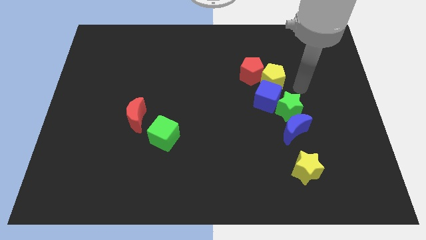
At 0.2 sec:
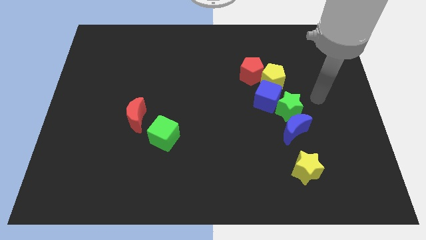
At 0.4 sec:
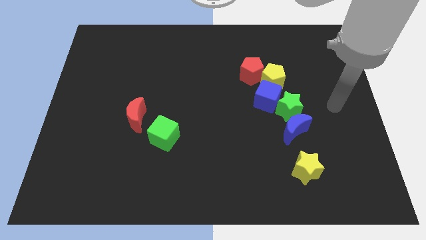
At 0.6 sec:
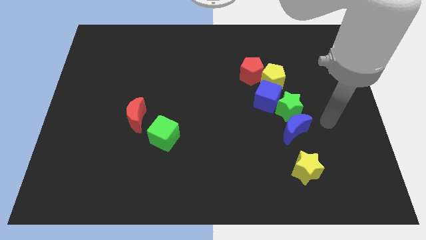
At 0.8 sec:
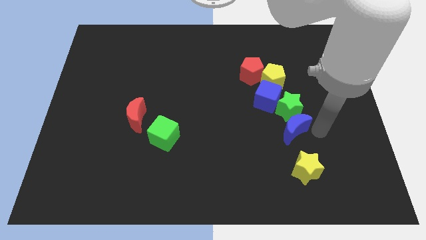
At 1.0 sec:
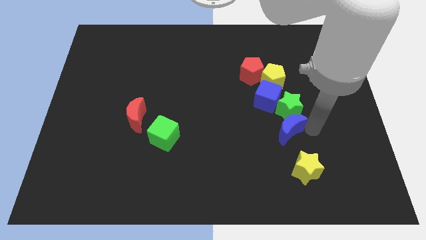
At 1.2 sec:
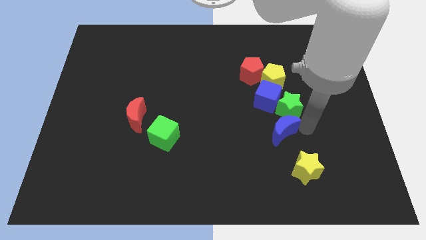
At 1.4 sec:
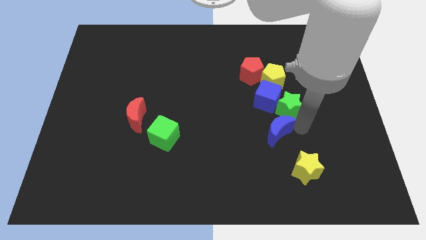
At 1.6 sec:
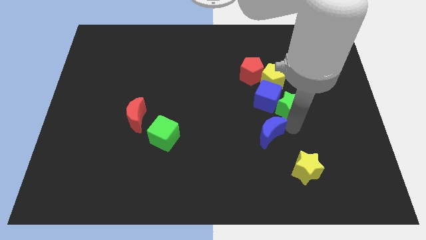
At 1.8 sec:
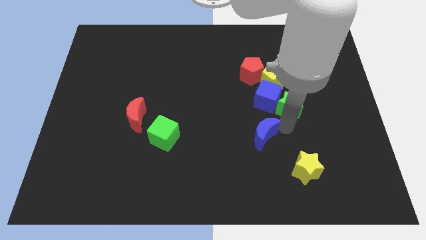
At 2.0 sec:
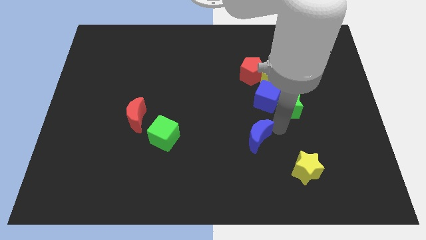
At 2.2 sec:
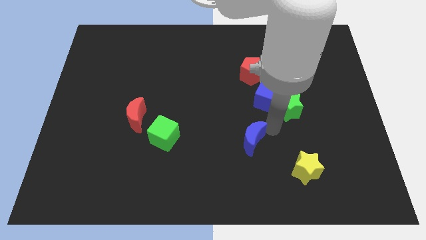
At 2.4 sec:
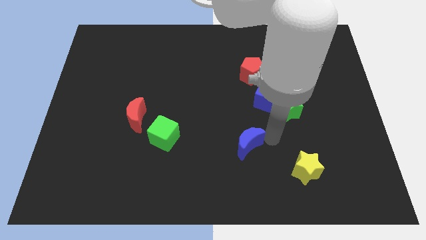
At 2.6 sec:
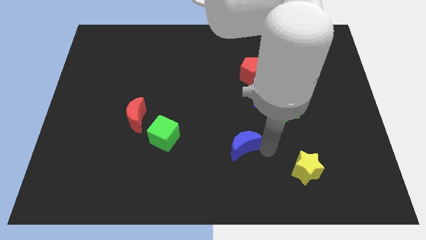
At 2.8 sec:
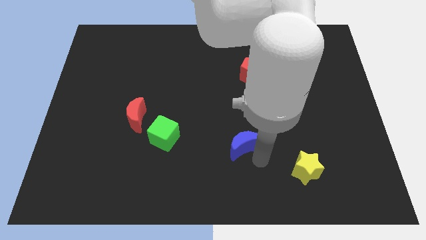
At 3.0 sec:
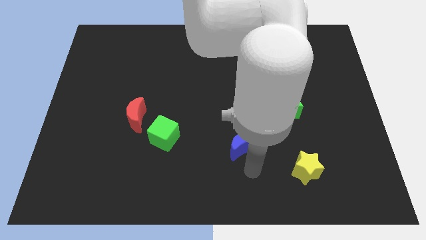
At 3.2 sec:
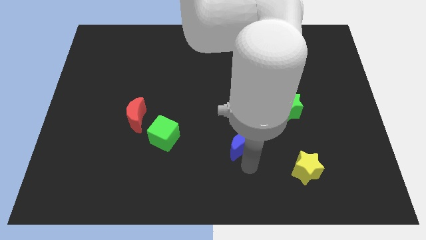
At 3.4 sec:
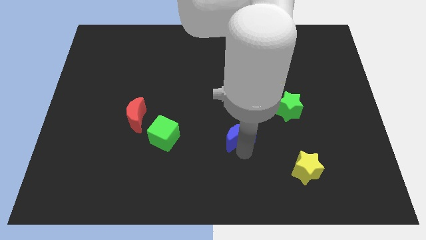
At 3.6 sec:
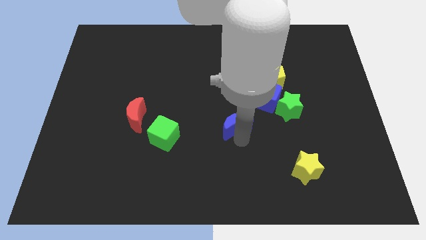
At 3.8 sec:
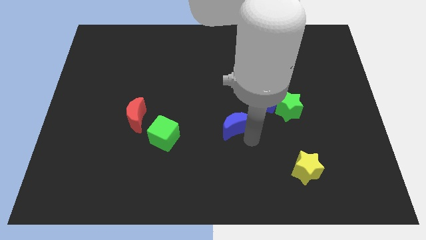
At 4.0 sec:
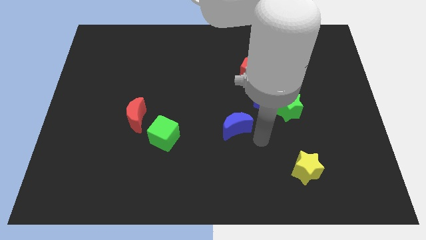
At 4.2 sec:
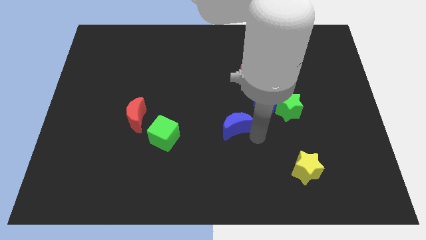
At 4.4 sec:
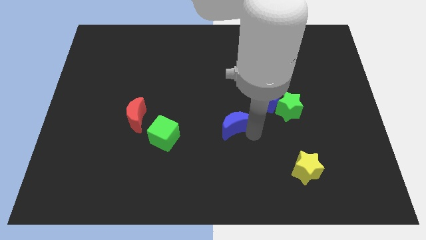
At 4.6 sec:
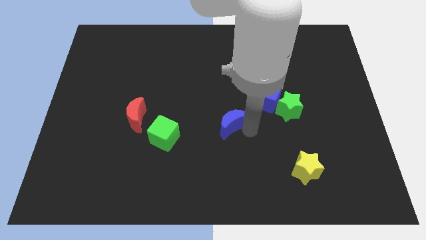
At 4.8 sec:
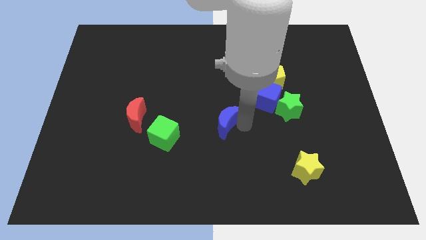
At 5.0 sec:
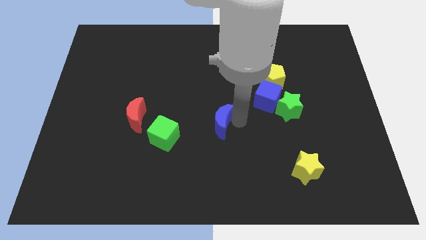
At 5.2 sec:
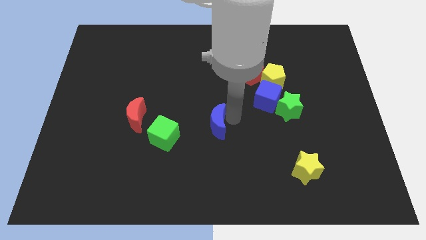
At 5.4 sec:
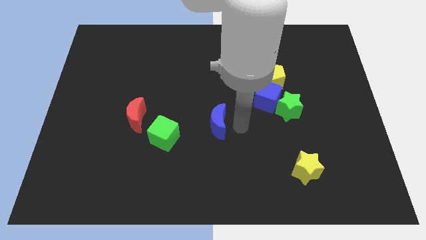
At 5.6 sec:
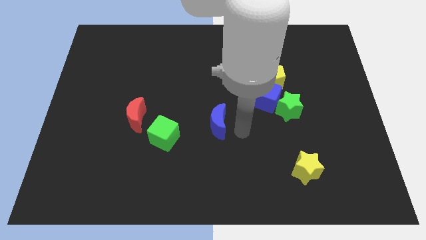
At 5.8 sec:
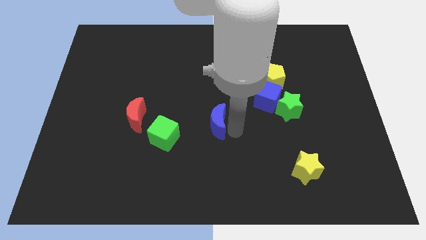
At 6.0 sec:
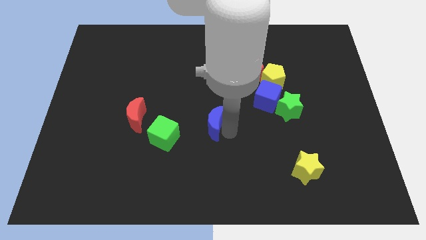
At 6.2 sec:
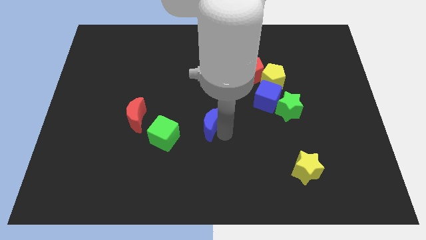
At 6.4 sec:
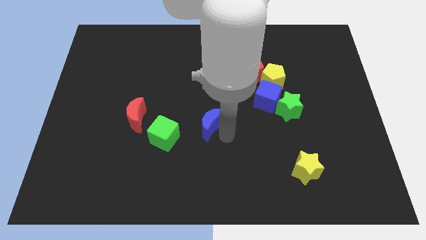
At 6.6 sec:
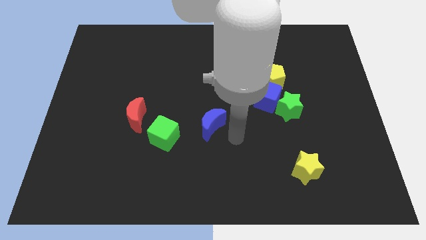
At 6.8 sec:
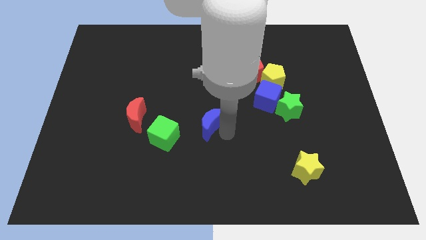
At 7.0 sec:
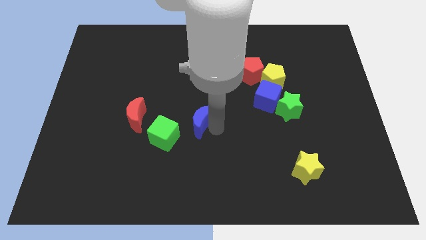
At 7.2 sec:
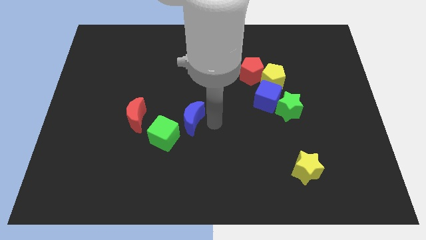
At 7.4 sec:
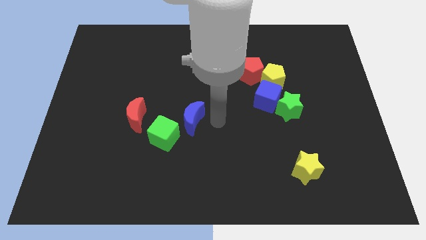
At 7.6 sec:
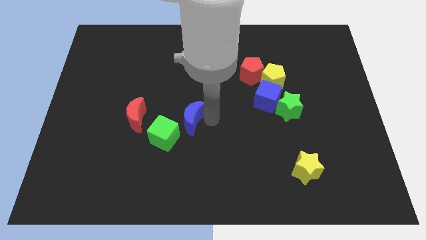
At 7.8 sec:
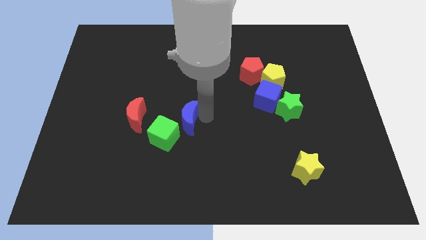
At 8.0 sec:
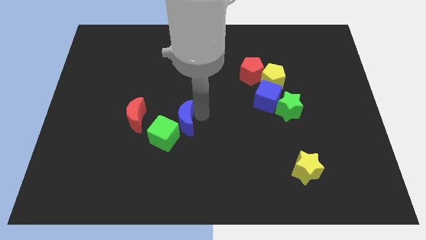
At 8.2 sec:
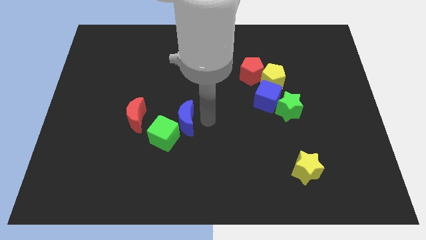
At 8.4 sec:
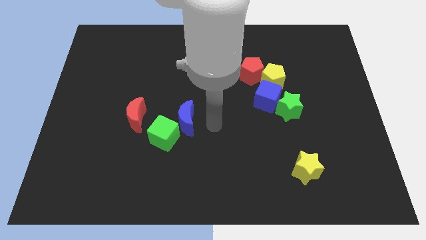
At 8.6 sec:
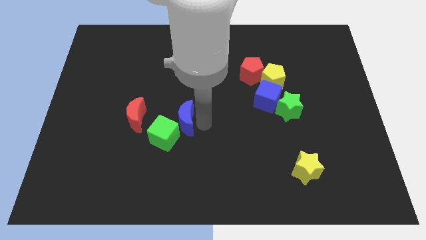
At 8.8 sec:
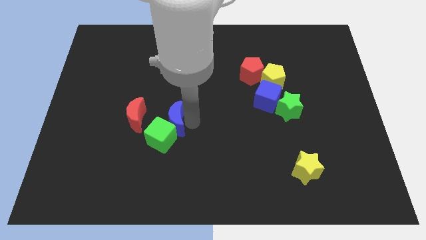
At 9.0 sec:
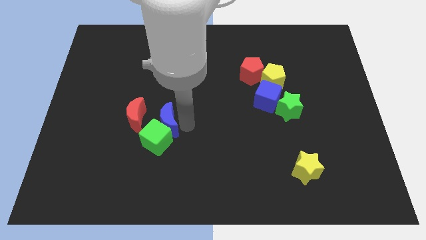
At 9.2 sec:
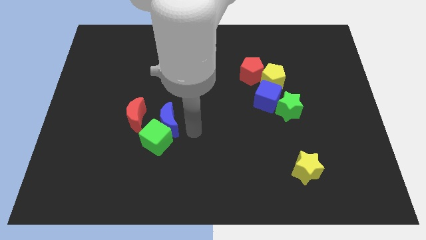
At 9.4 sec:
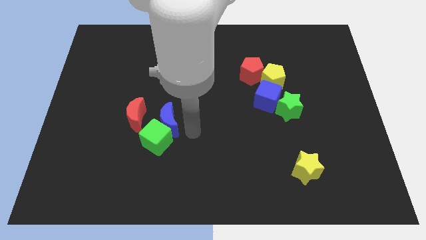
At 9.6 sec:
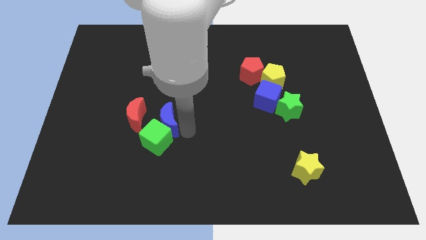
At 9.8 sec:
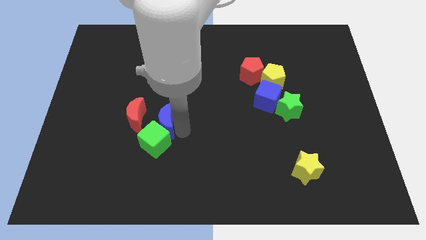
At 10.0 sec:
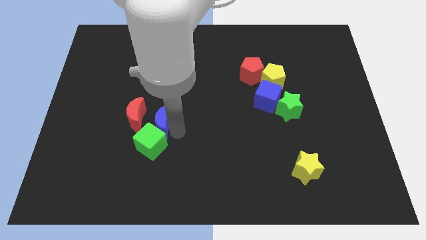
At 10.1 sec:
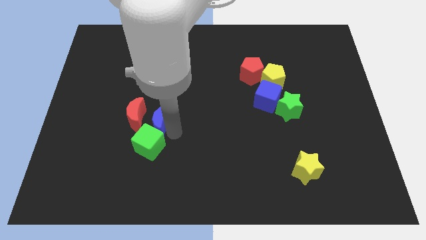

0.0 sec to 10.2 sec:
push the blue moon close to the red moon

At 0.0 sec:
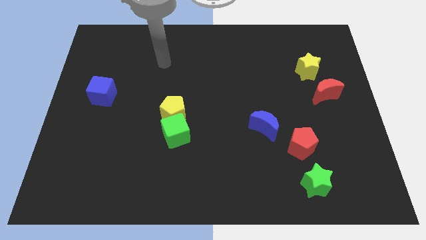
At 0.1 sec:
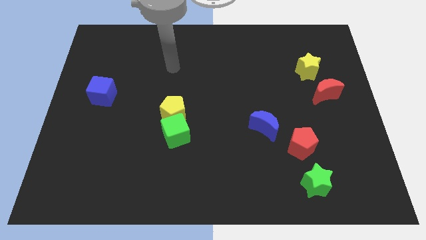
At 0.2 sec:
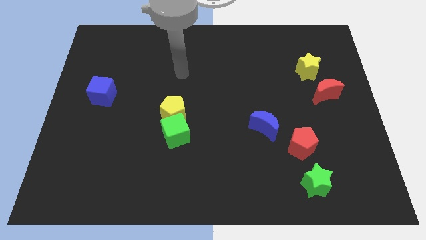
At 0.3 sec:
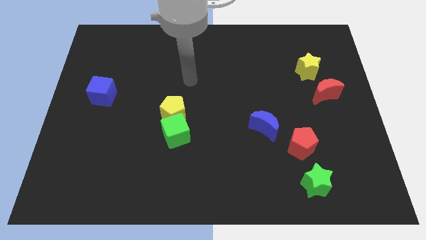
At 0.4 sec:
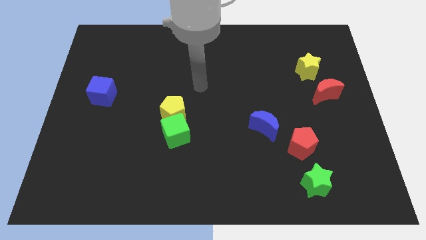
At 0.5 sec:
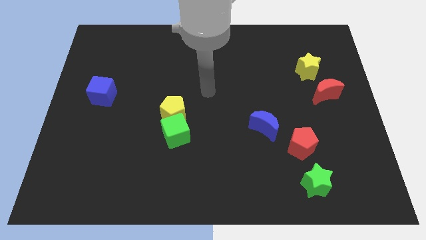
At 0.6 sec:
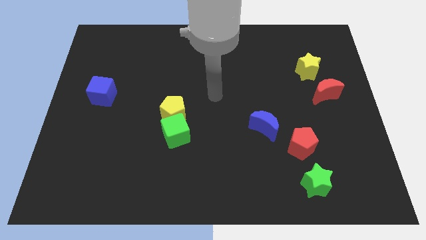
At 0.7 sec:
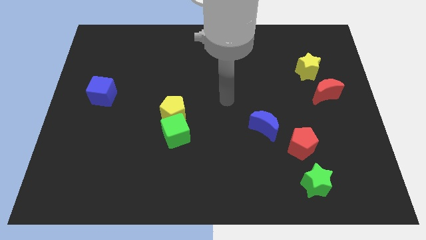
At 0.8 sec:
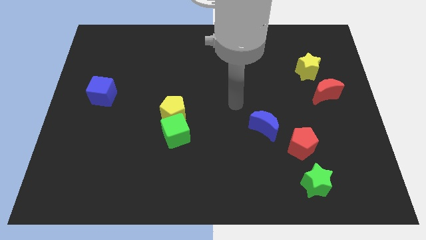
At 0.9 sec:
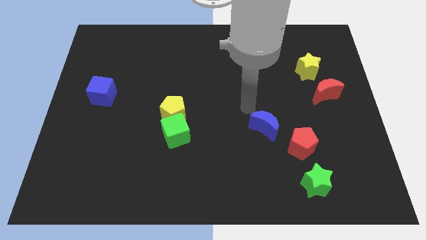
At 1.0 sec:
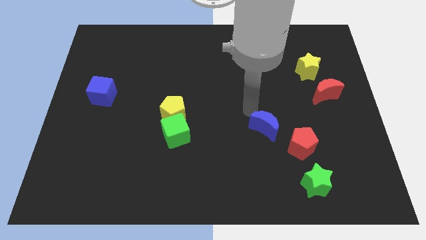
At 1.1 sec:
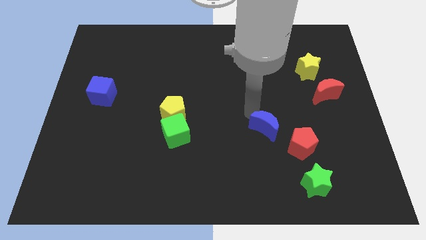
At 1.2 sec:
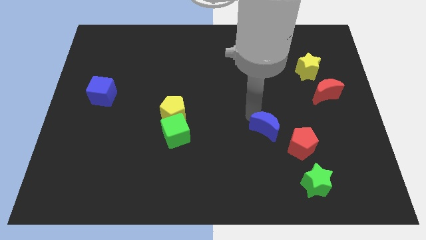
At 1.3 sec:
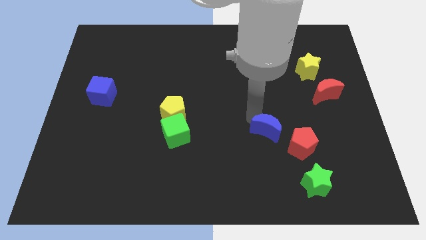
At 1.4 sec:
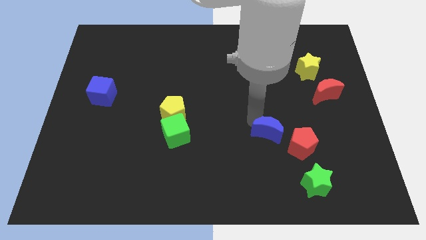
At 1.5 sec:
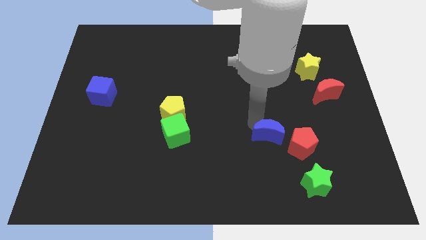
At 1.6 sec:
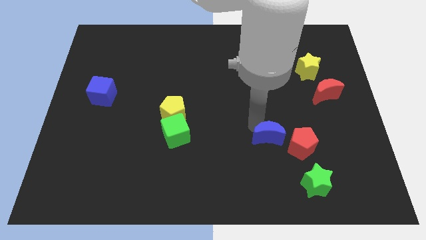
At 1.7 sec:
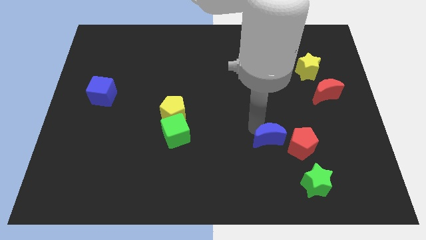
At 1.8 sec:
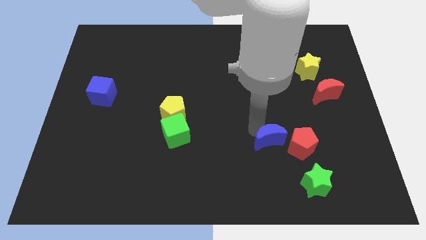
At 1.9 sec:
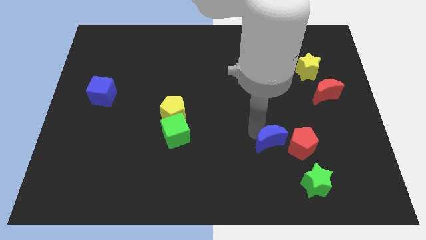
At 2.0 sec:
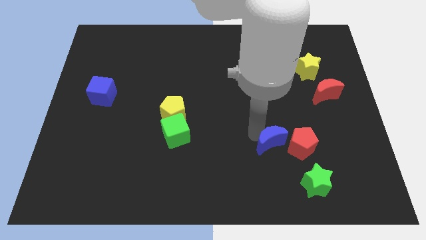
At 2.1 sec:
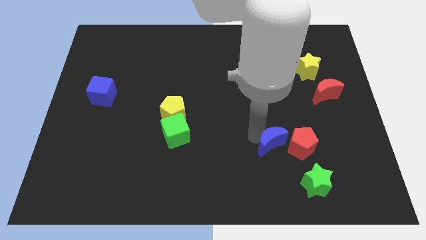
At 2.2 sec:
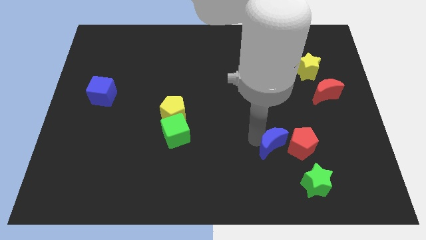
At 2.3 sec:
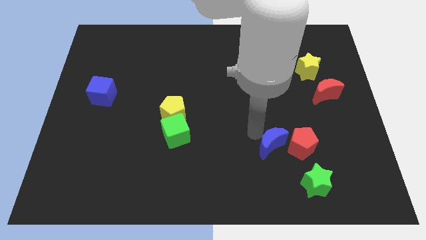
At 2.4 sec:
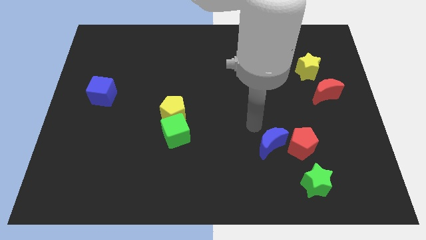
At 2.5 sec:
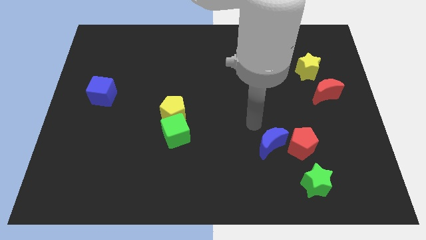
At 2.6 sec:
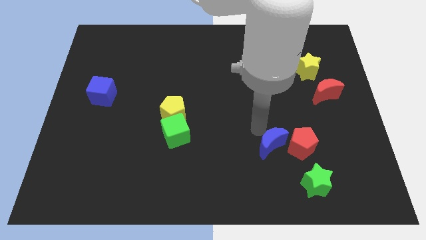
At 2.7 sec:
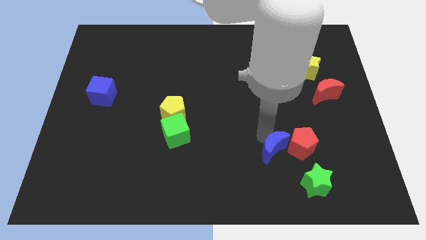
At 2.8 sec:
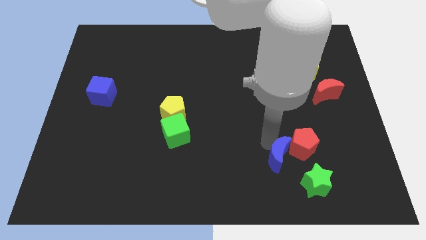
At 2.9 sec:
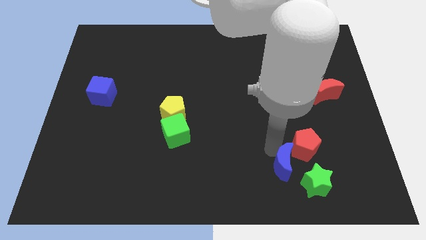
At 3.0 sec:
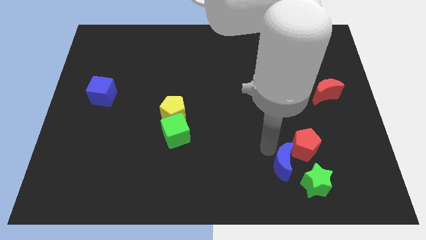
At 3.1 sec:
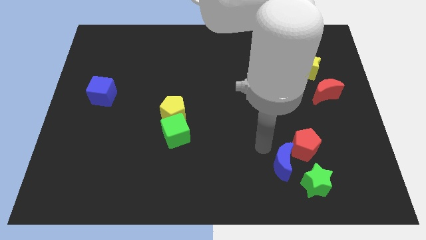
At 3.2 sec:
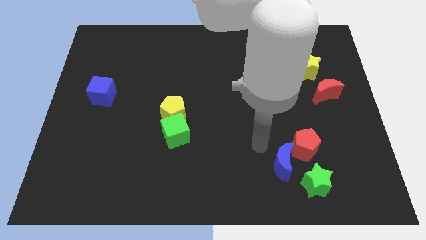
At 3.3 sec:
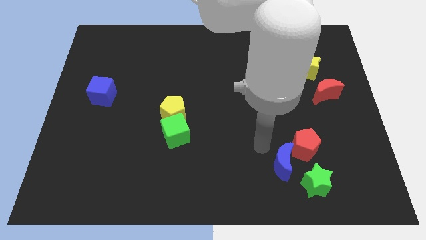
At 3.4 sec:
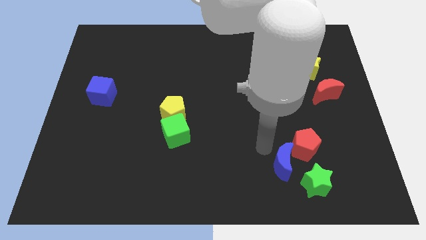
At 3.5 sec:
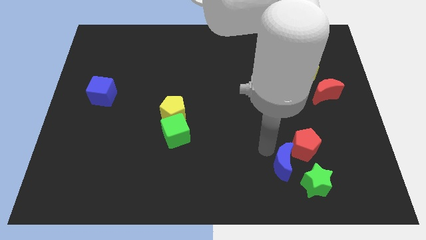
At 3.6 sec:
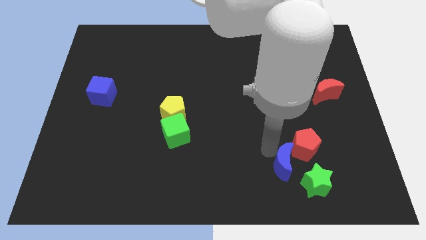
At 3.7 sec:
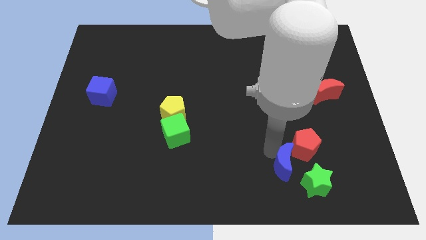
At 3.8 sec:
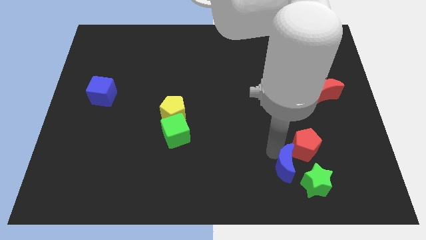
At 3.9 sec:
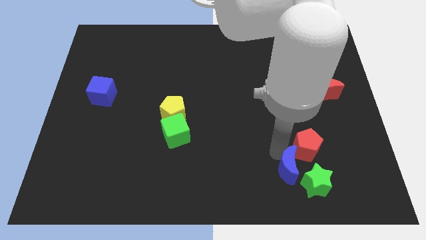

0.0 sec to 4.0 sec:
slide the blue moon towards the green star
